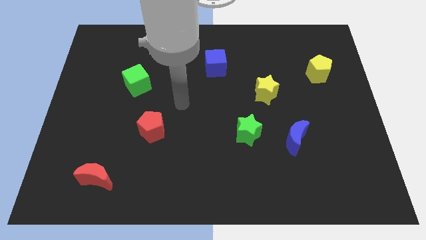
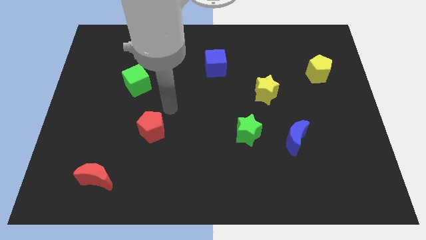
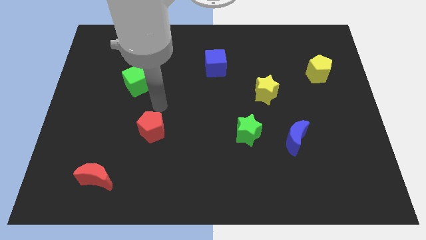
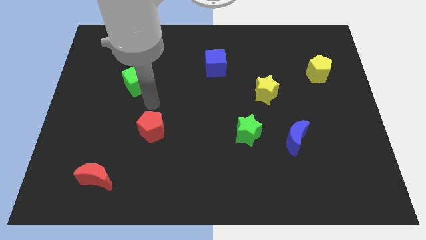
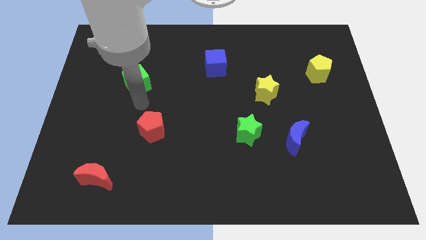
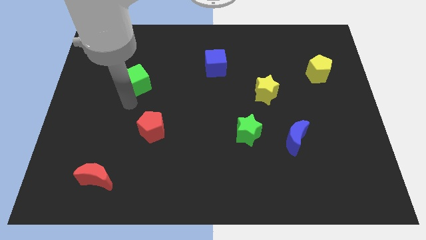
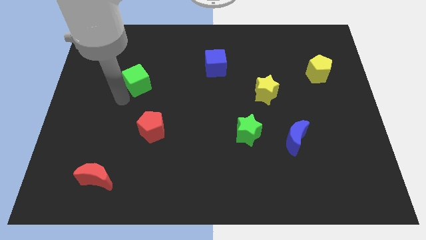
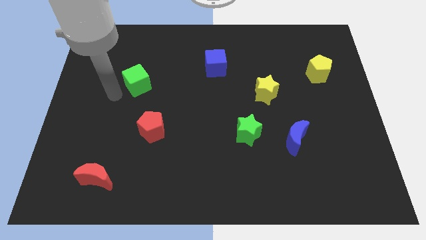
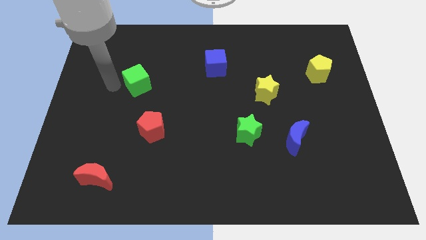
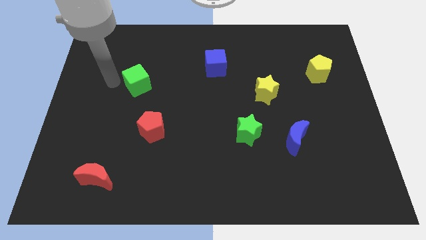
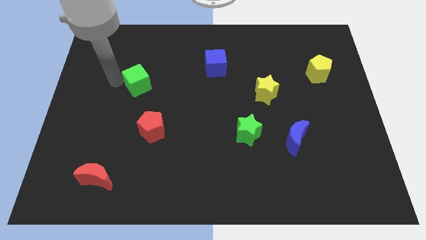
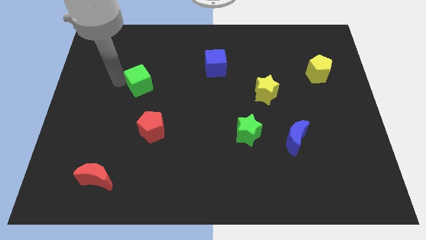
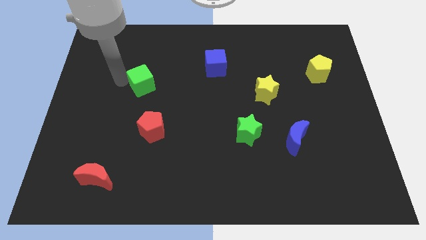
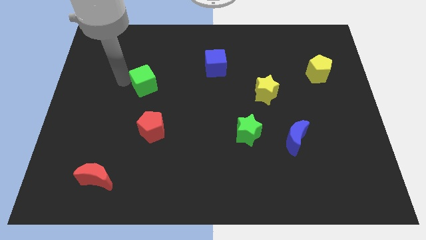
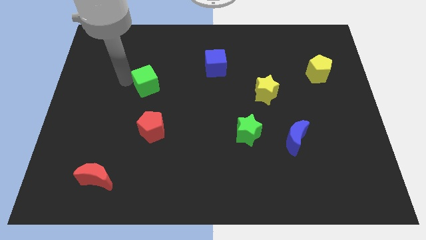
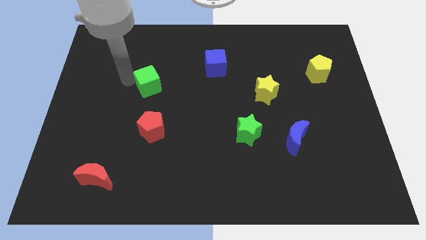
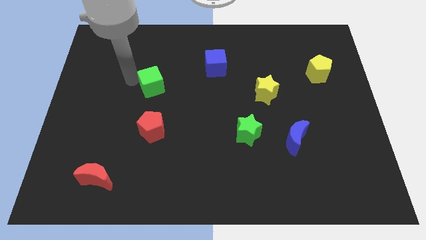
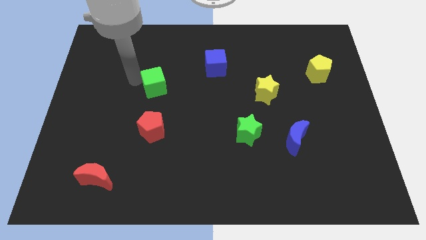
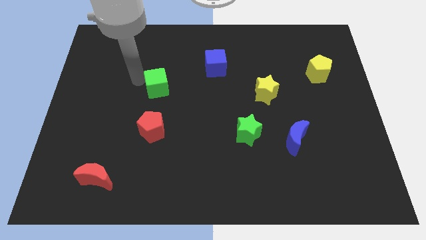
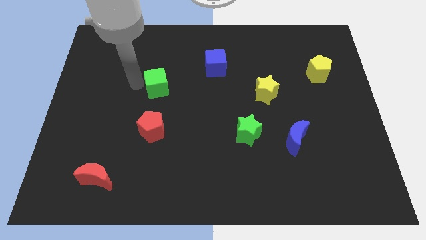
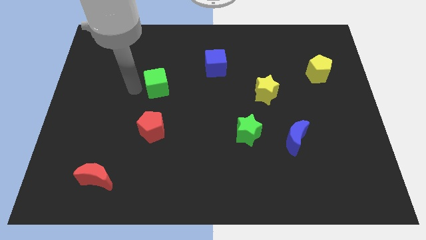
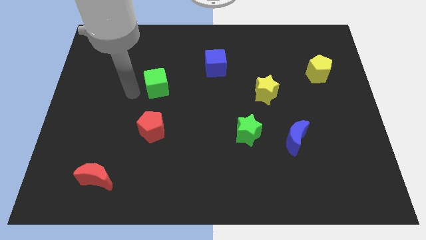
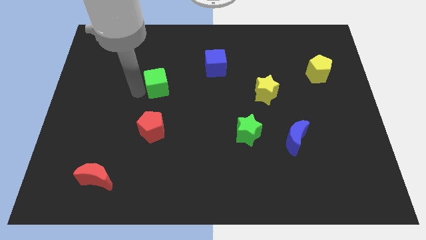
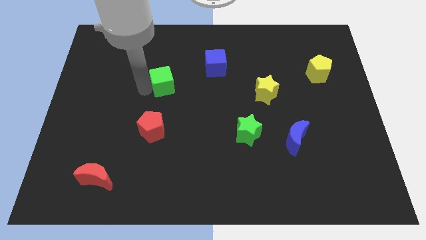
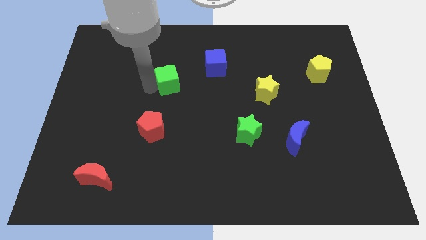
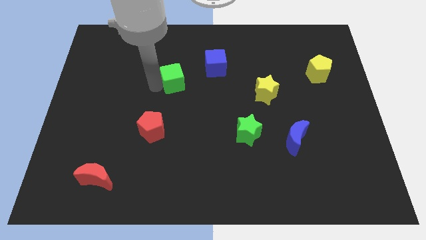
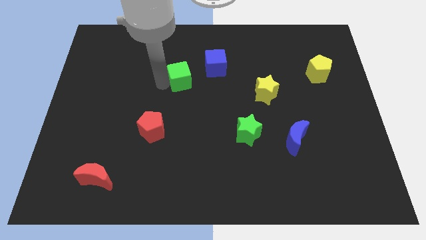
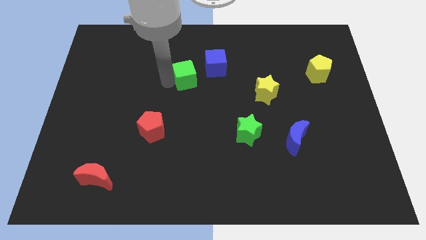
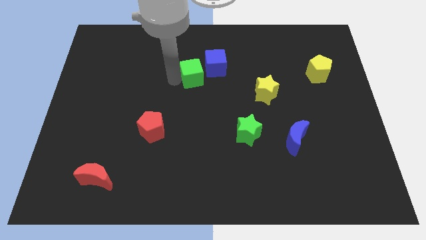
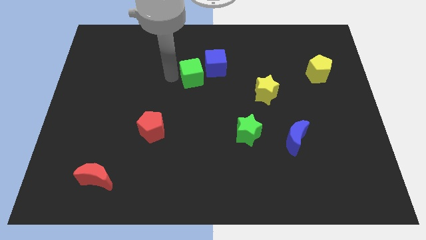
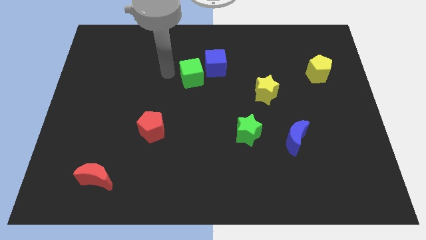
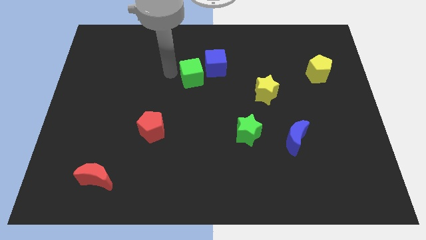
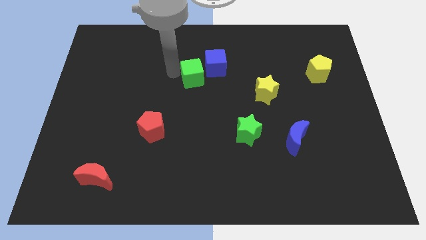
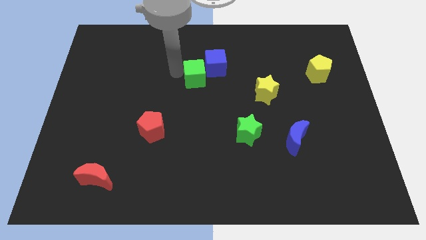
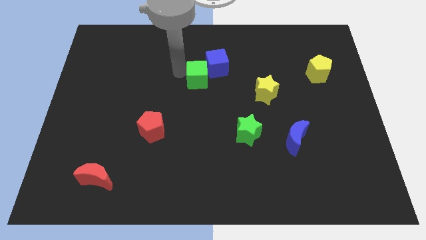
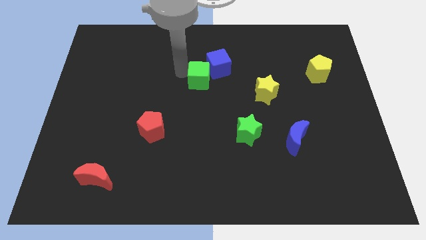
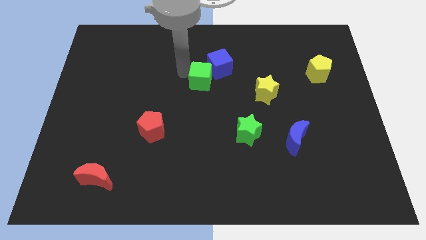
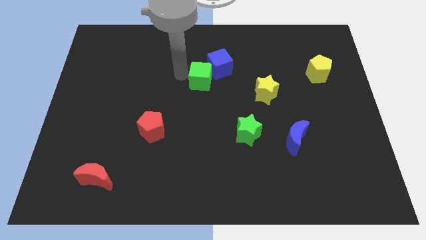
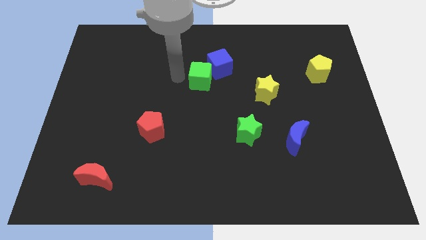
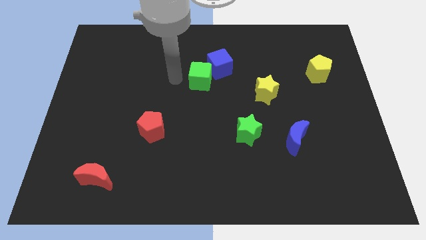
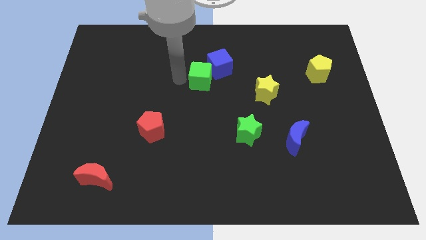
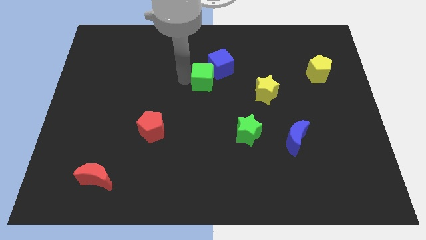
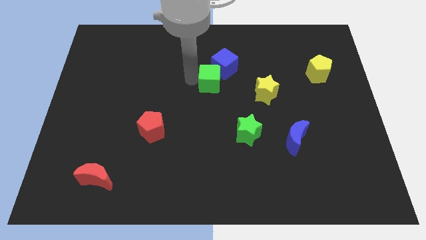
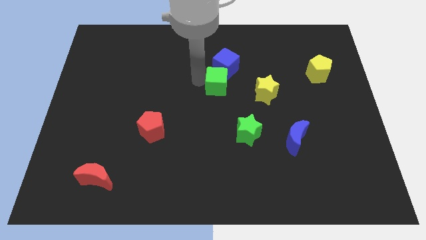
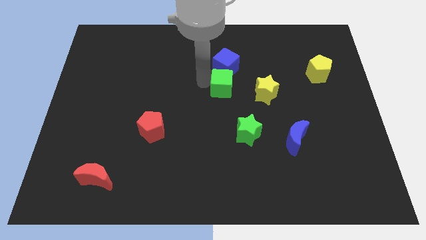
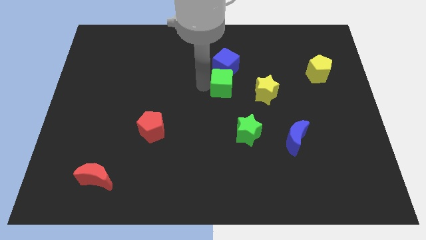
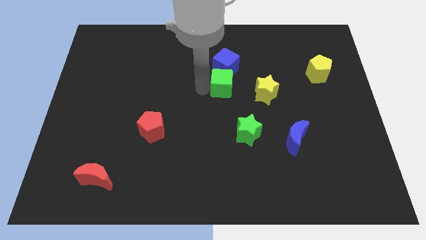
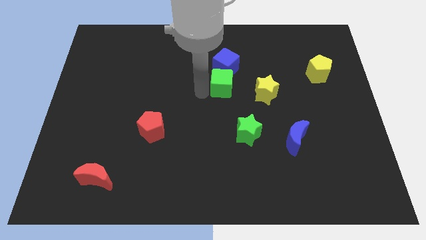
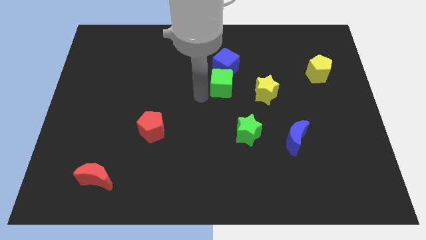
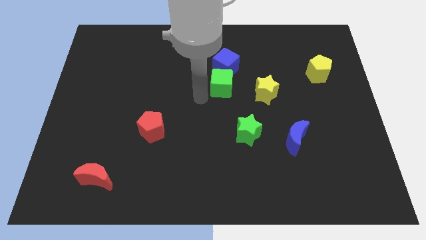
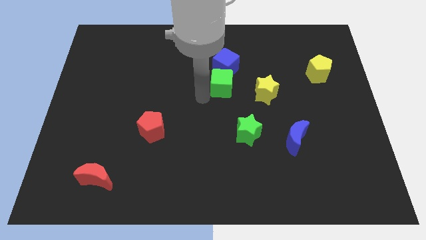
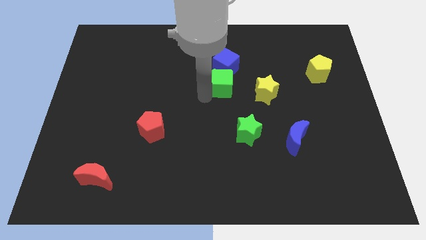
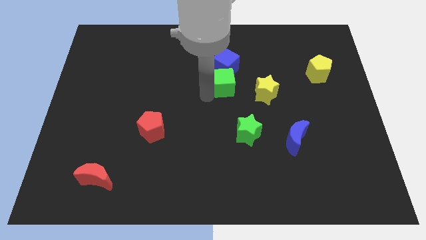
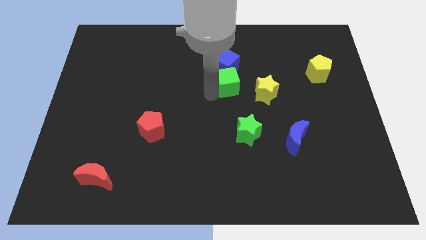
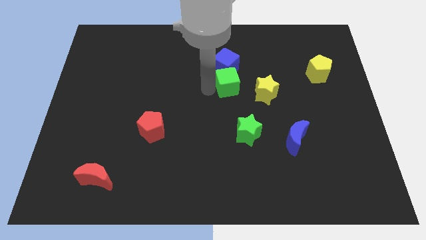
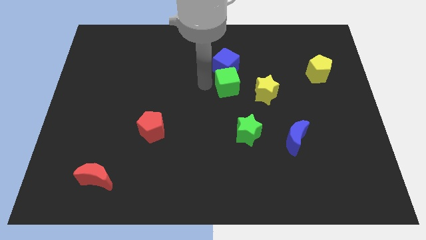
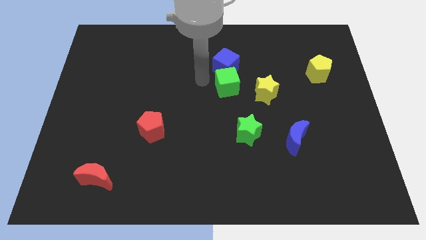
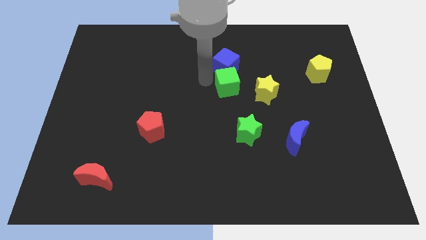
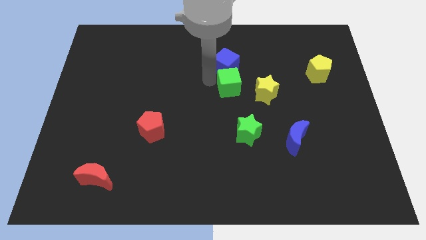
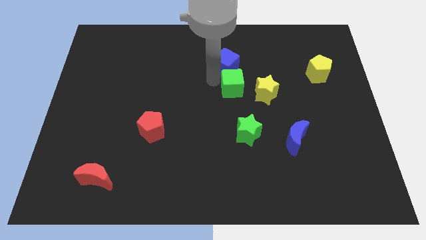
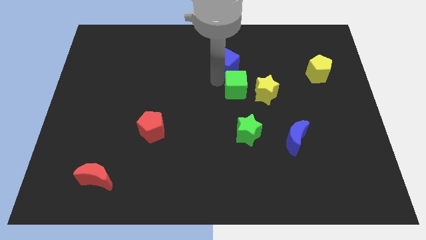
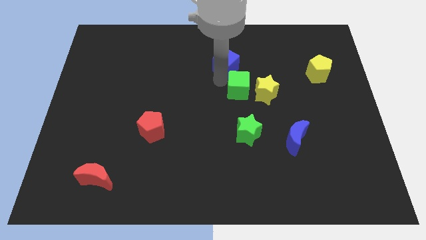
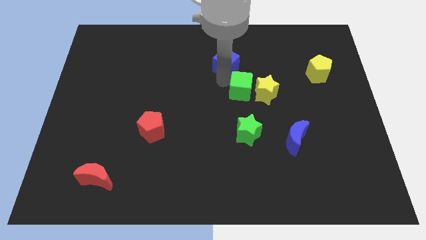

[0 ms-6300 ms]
move the green cube next to the yellow star
